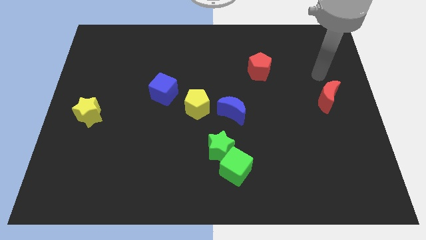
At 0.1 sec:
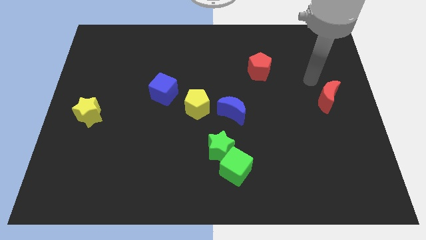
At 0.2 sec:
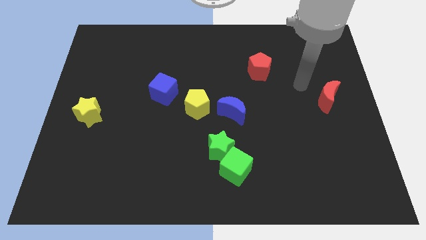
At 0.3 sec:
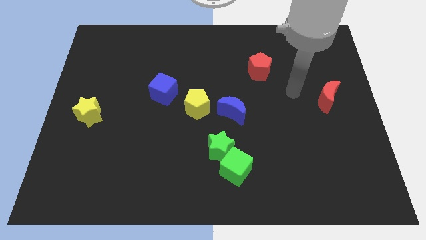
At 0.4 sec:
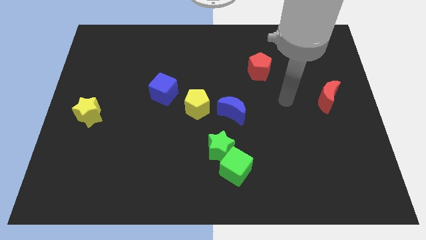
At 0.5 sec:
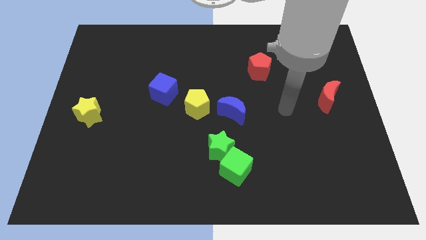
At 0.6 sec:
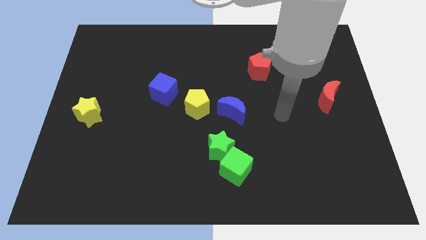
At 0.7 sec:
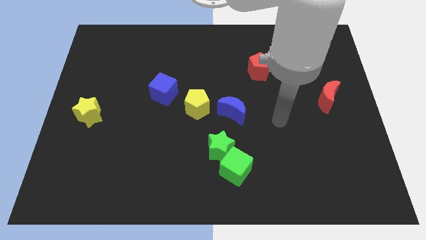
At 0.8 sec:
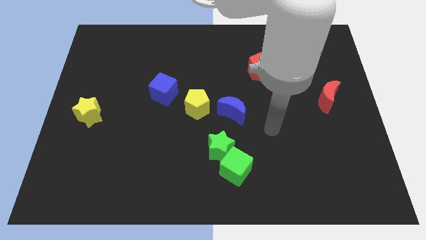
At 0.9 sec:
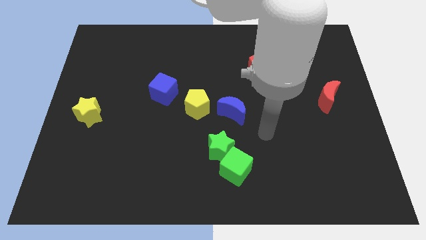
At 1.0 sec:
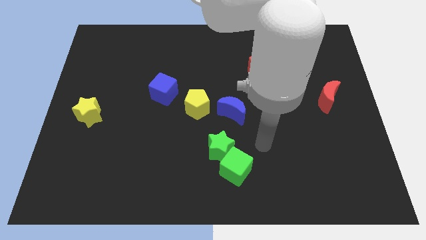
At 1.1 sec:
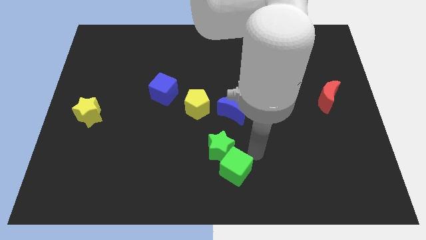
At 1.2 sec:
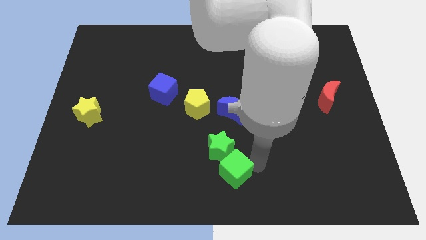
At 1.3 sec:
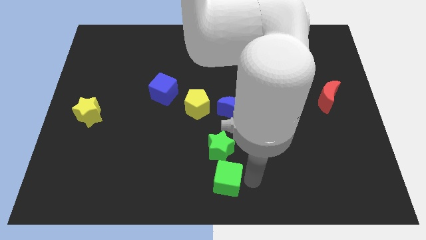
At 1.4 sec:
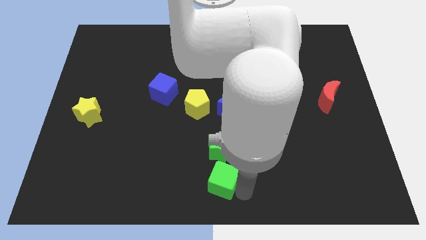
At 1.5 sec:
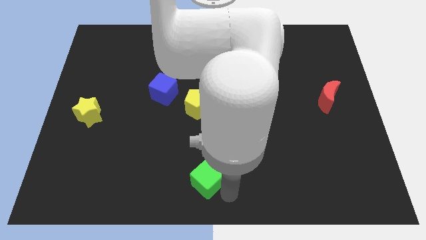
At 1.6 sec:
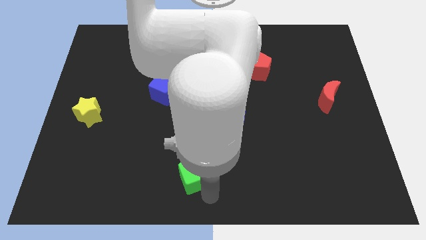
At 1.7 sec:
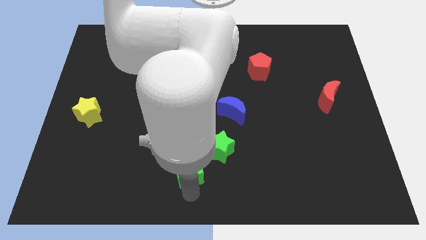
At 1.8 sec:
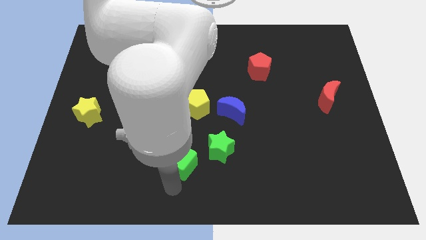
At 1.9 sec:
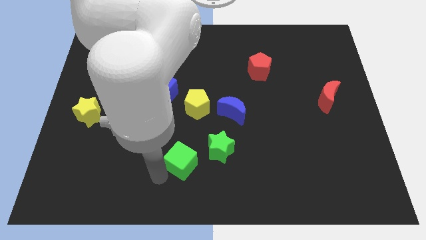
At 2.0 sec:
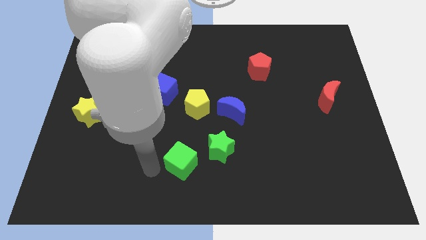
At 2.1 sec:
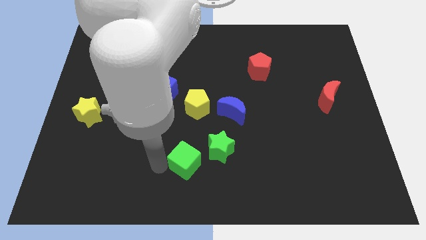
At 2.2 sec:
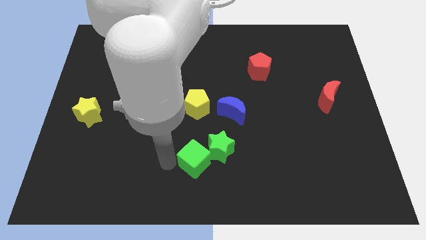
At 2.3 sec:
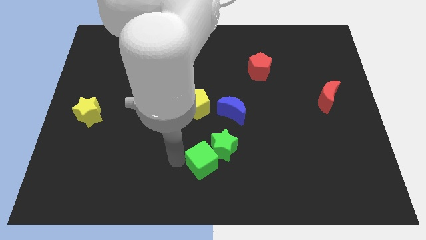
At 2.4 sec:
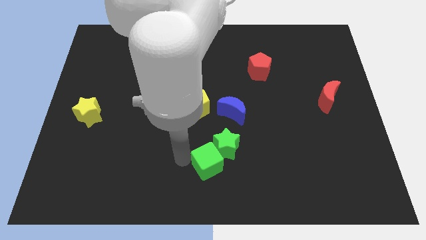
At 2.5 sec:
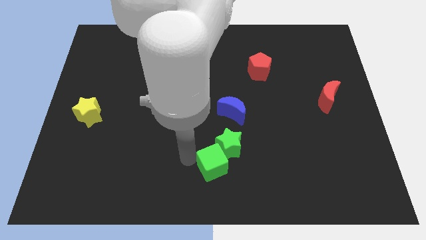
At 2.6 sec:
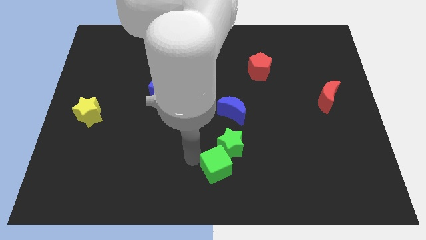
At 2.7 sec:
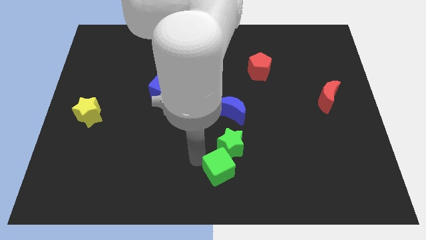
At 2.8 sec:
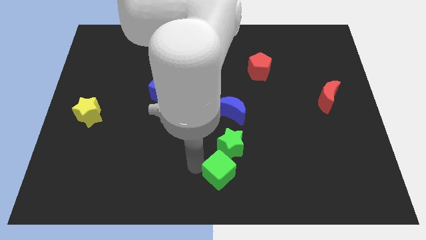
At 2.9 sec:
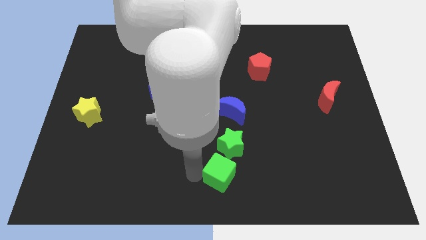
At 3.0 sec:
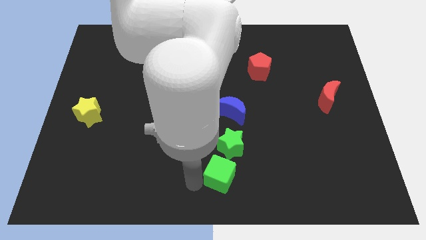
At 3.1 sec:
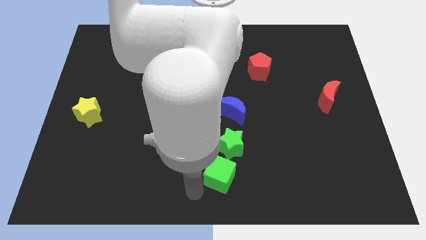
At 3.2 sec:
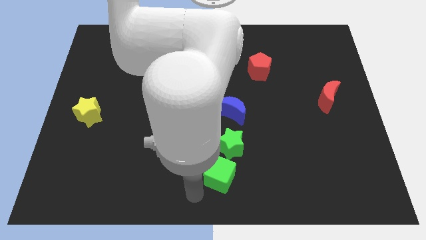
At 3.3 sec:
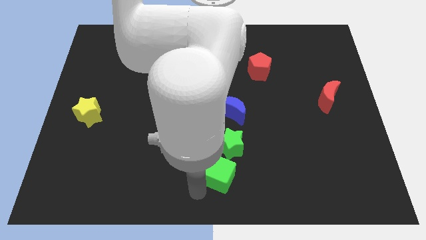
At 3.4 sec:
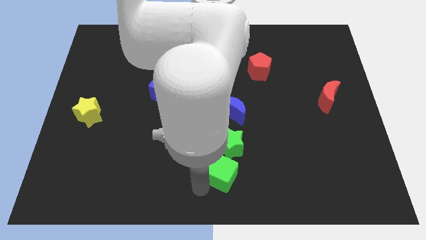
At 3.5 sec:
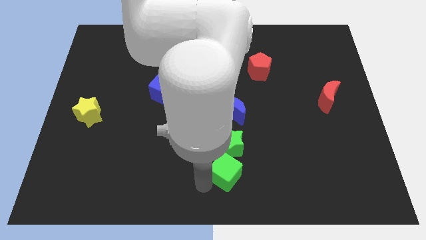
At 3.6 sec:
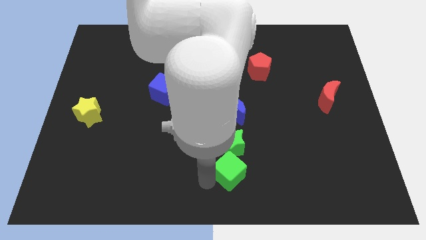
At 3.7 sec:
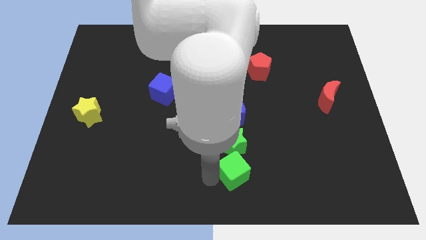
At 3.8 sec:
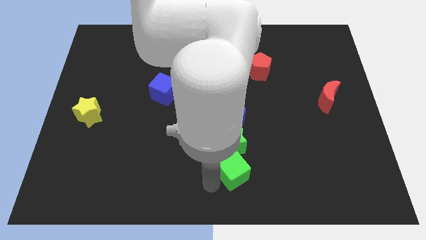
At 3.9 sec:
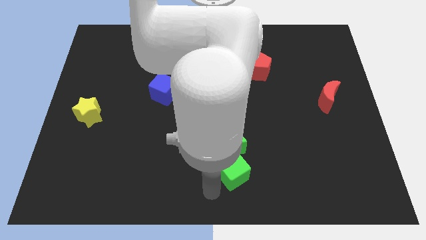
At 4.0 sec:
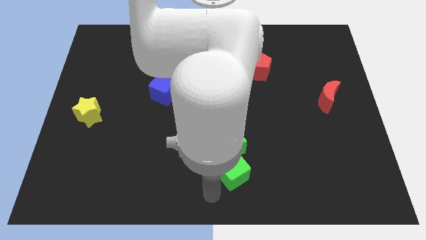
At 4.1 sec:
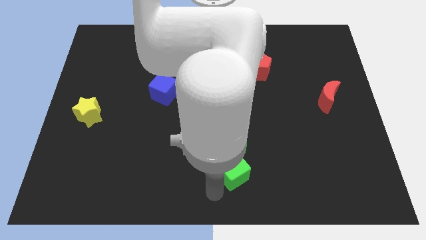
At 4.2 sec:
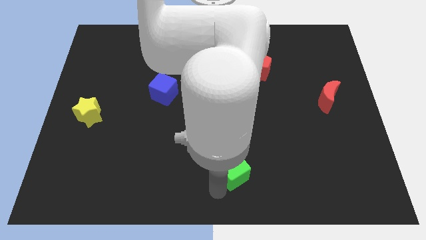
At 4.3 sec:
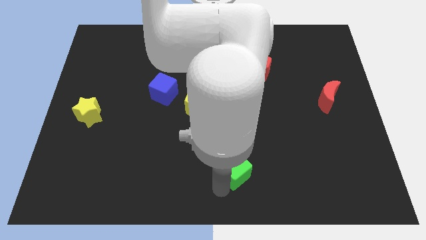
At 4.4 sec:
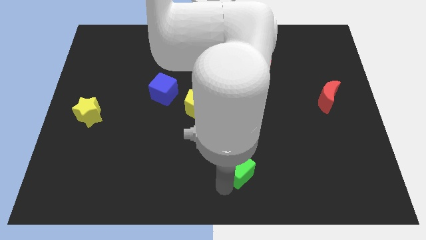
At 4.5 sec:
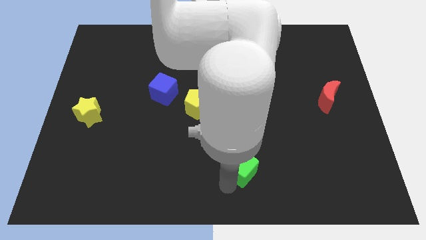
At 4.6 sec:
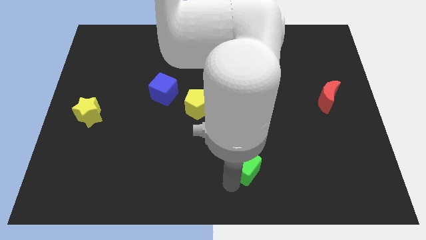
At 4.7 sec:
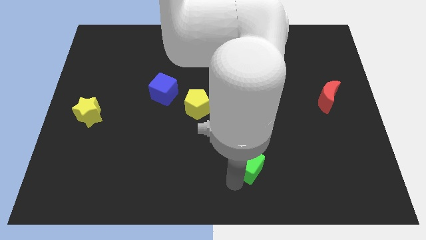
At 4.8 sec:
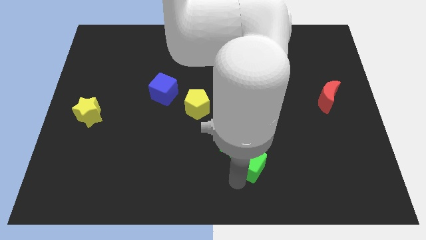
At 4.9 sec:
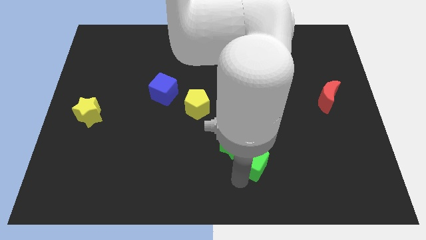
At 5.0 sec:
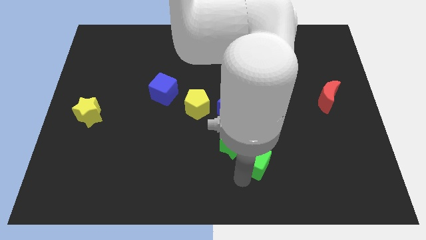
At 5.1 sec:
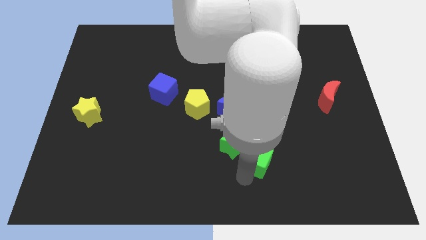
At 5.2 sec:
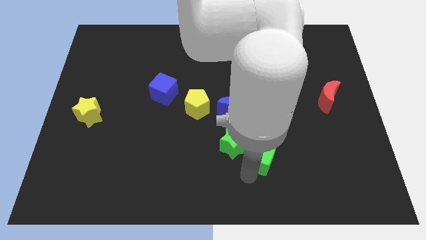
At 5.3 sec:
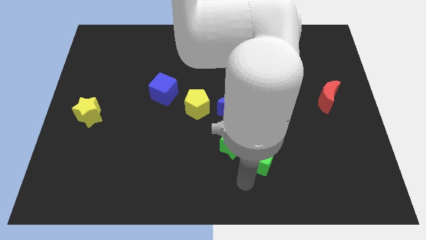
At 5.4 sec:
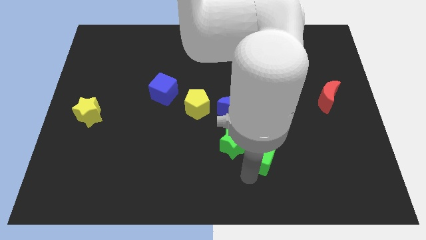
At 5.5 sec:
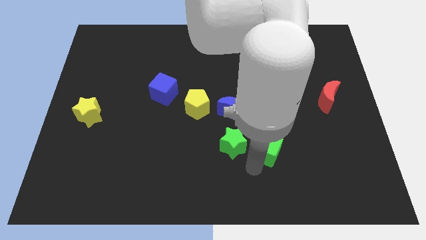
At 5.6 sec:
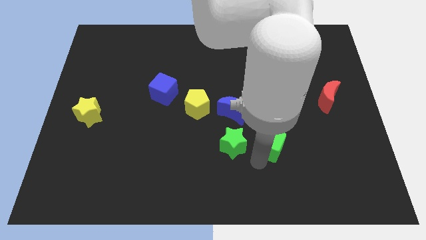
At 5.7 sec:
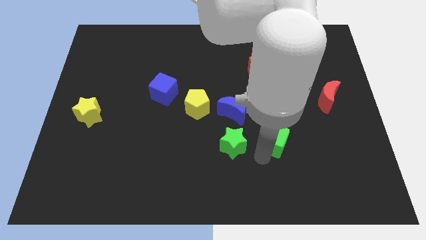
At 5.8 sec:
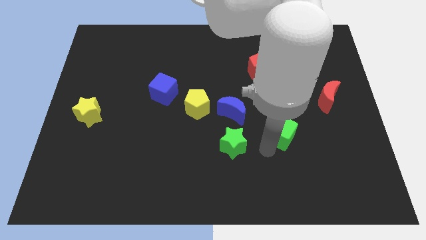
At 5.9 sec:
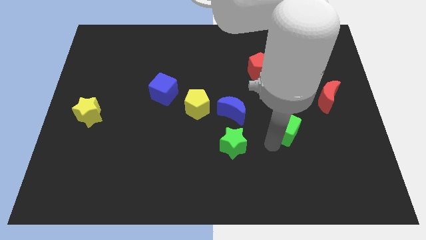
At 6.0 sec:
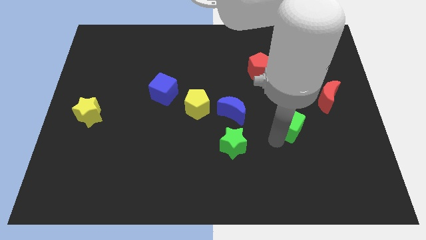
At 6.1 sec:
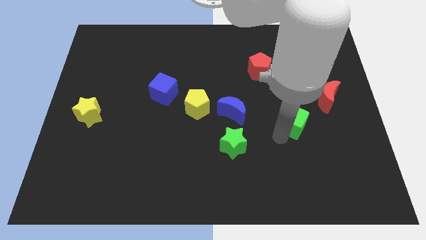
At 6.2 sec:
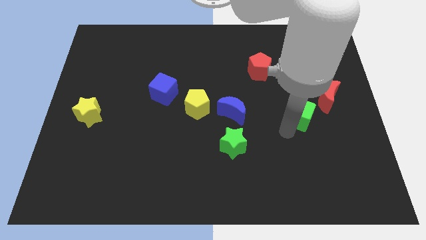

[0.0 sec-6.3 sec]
push the green cube up and right

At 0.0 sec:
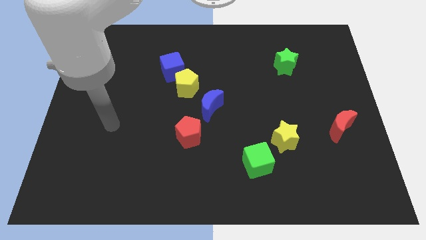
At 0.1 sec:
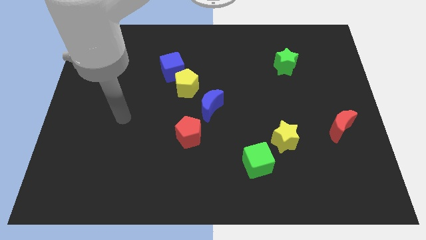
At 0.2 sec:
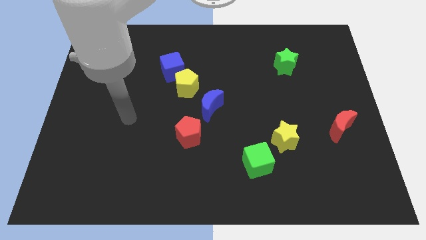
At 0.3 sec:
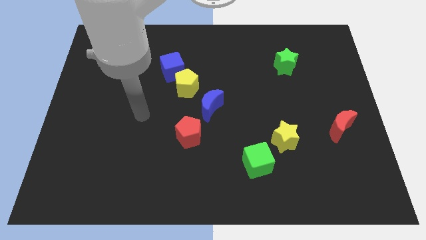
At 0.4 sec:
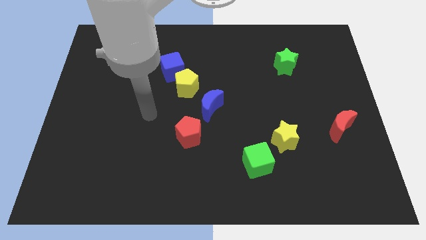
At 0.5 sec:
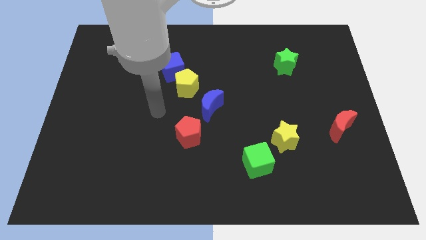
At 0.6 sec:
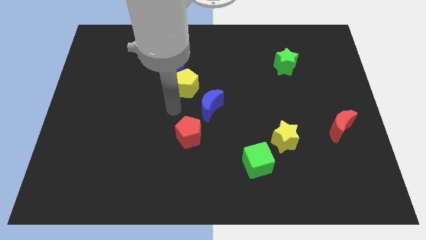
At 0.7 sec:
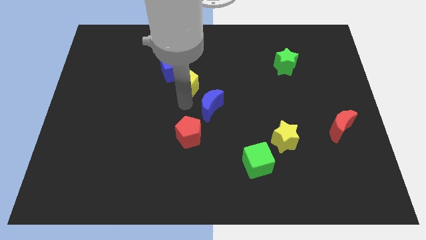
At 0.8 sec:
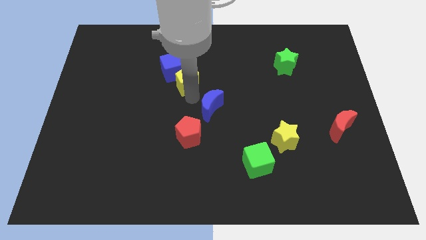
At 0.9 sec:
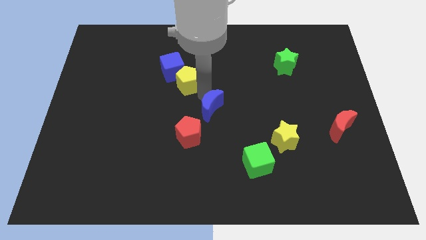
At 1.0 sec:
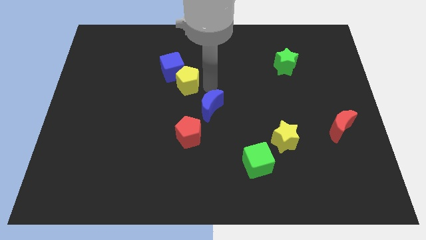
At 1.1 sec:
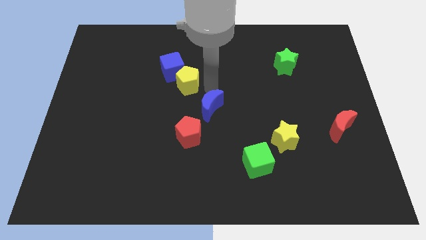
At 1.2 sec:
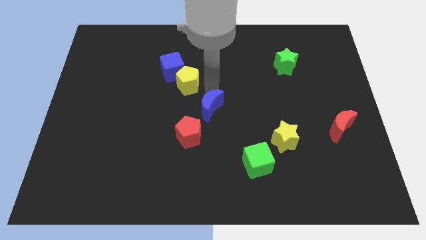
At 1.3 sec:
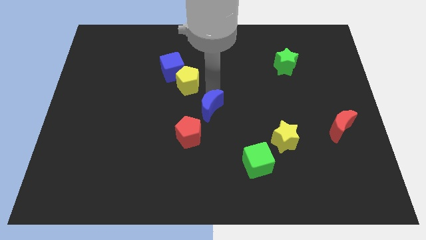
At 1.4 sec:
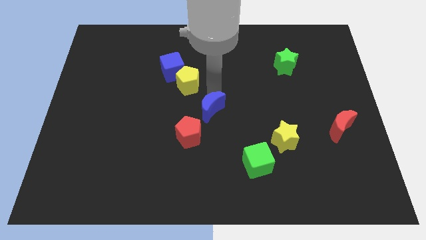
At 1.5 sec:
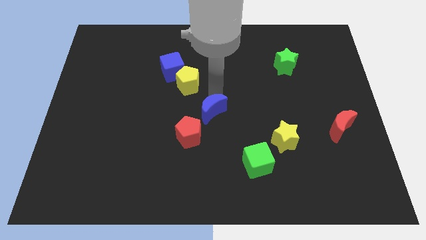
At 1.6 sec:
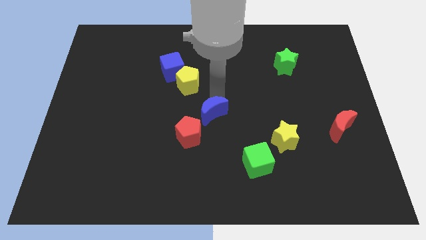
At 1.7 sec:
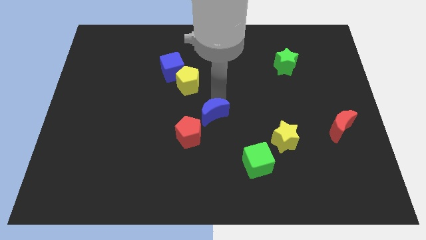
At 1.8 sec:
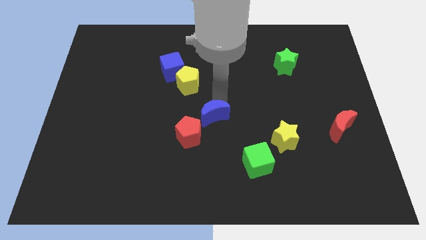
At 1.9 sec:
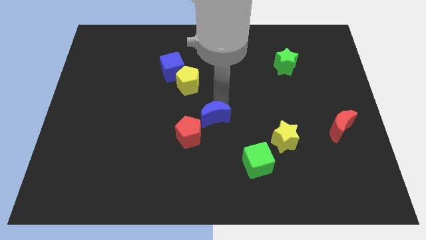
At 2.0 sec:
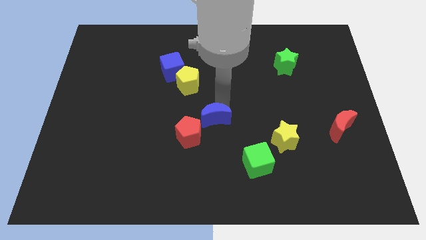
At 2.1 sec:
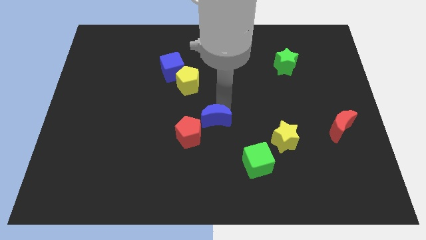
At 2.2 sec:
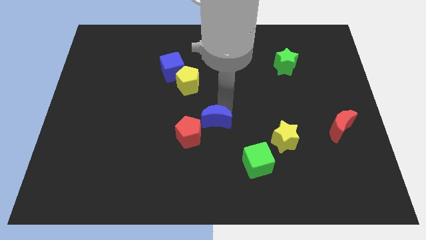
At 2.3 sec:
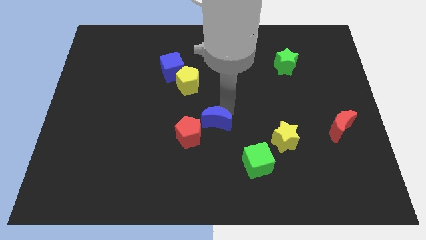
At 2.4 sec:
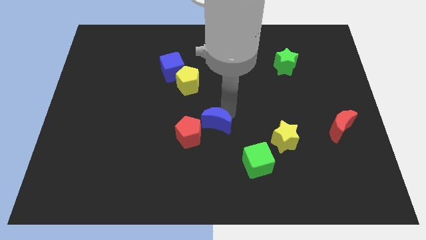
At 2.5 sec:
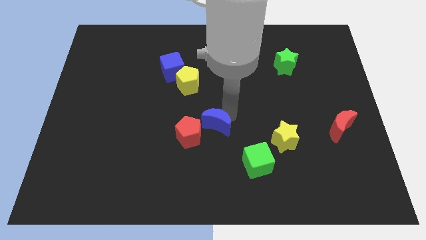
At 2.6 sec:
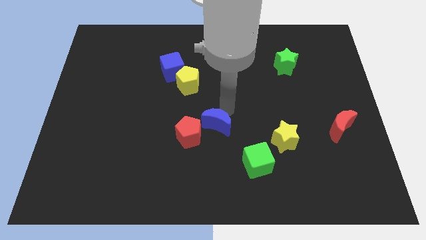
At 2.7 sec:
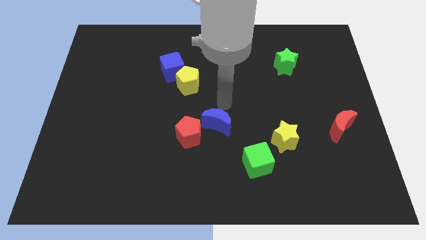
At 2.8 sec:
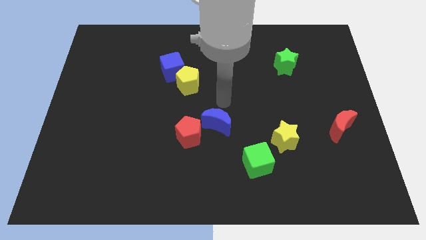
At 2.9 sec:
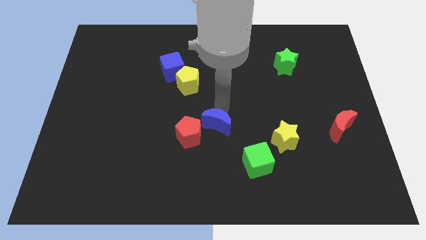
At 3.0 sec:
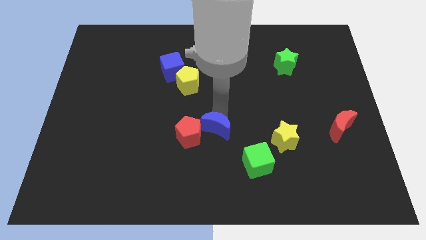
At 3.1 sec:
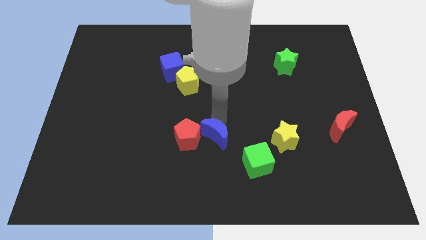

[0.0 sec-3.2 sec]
move the blue moon downwards a bit
